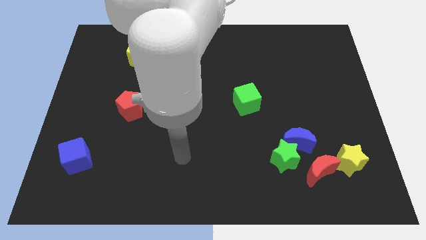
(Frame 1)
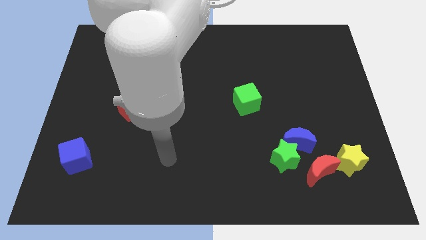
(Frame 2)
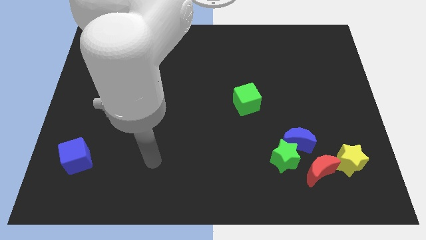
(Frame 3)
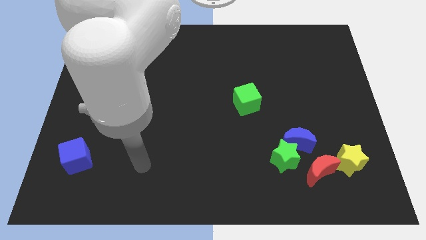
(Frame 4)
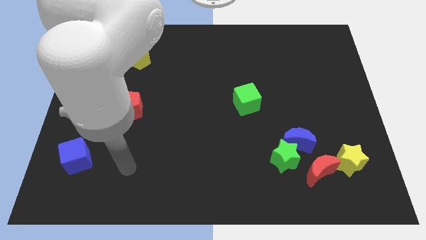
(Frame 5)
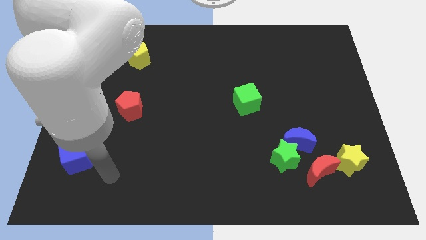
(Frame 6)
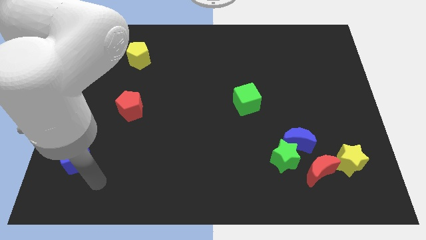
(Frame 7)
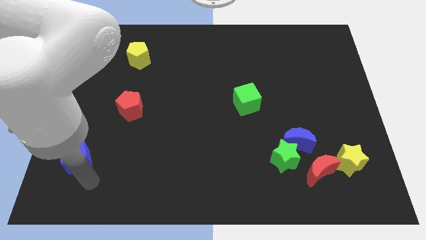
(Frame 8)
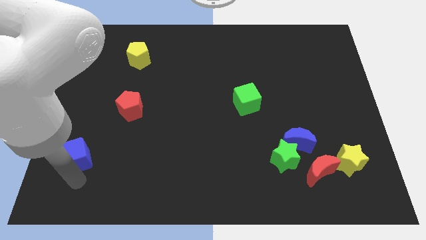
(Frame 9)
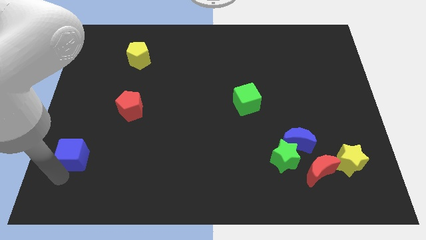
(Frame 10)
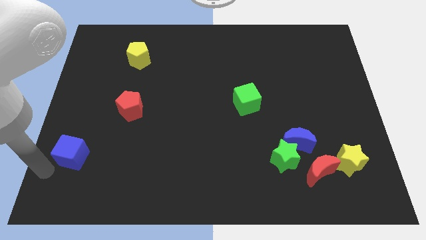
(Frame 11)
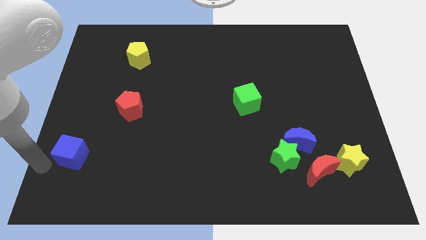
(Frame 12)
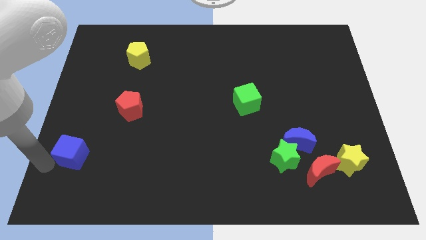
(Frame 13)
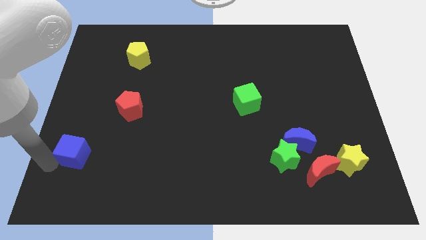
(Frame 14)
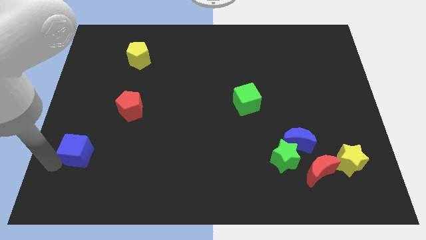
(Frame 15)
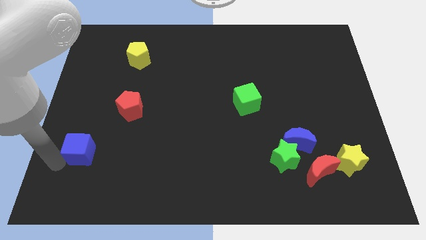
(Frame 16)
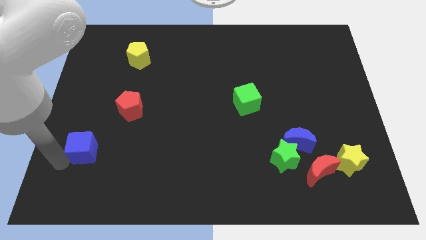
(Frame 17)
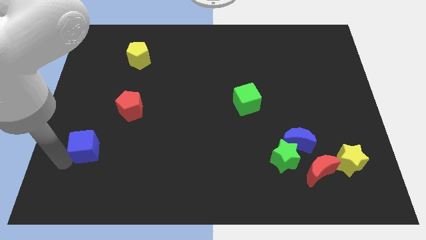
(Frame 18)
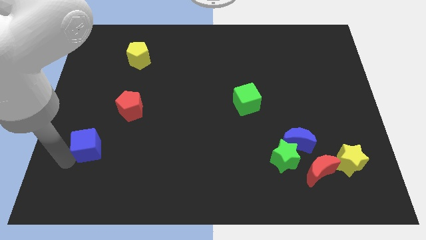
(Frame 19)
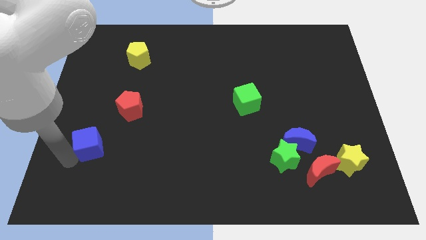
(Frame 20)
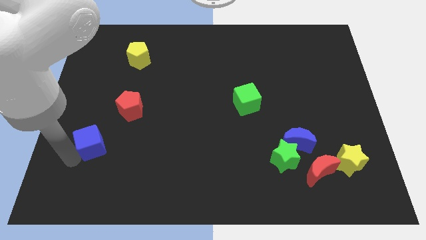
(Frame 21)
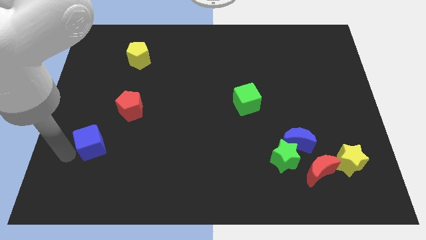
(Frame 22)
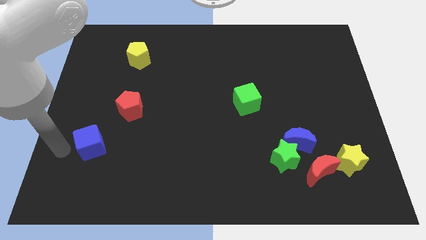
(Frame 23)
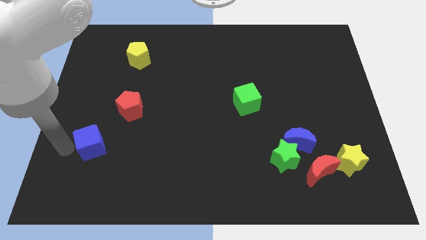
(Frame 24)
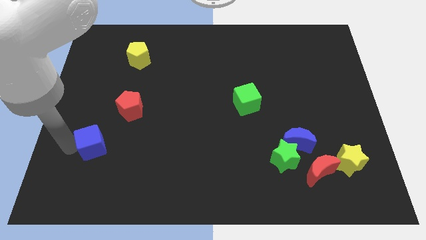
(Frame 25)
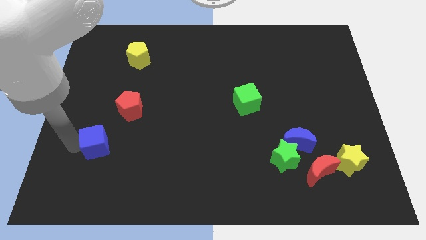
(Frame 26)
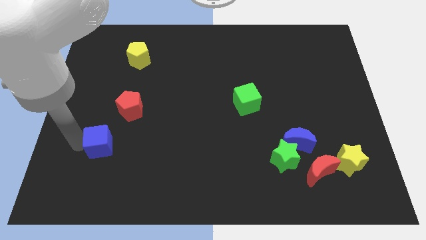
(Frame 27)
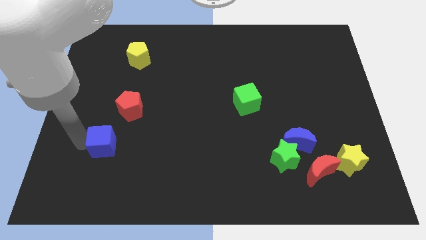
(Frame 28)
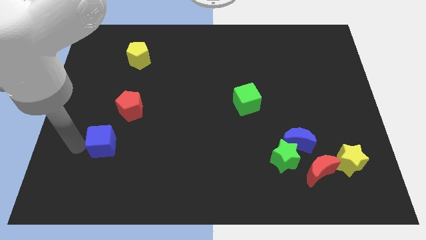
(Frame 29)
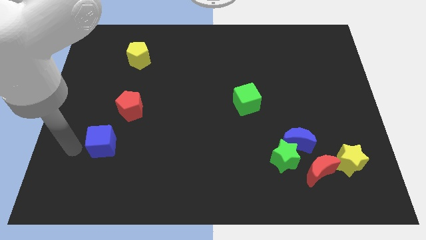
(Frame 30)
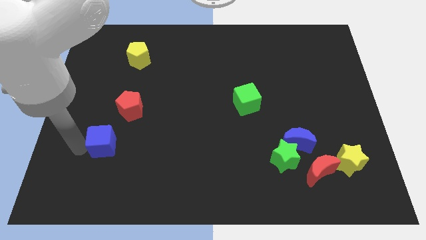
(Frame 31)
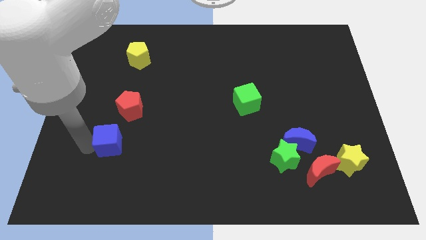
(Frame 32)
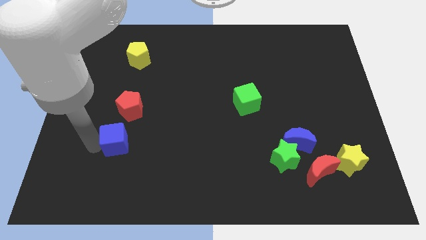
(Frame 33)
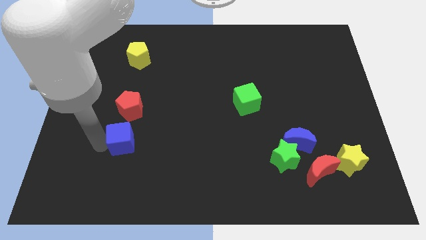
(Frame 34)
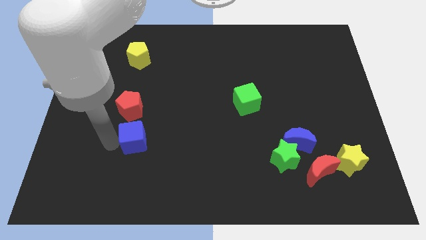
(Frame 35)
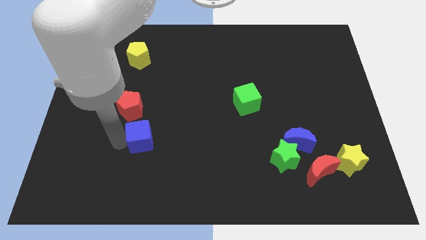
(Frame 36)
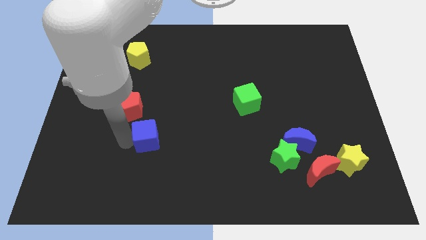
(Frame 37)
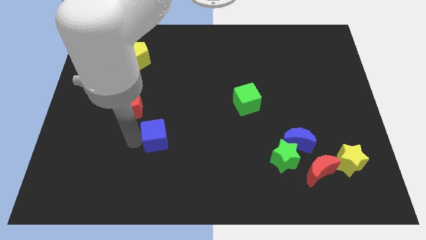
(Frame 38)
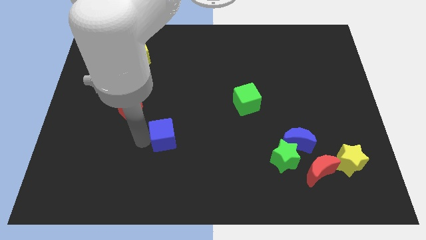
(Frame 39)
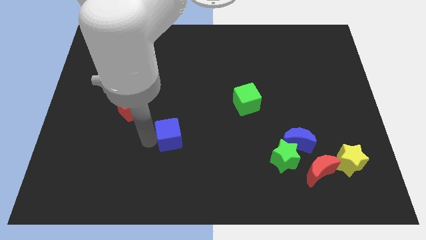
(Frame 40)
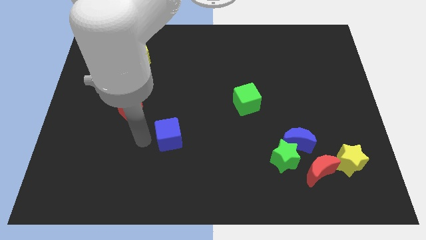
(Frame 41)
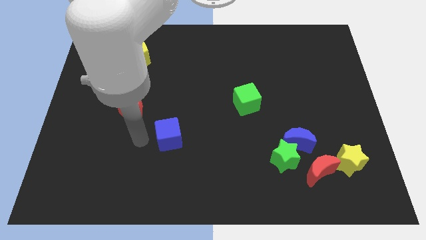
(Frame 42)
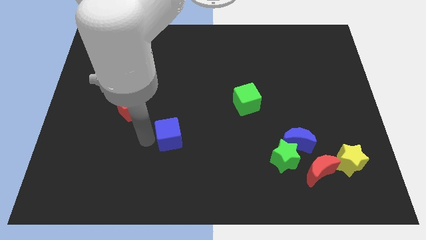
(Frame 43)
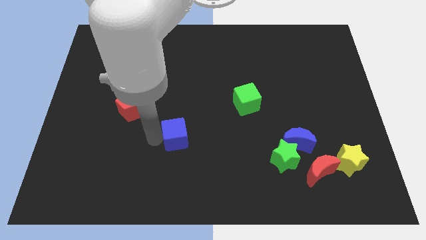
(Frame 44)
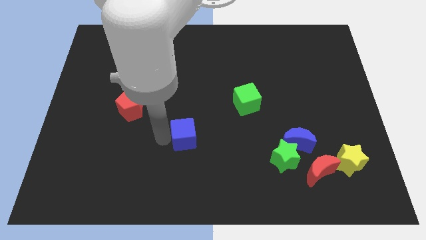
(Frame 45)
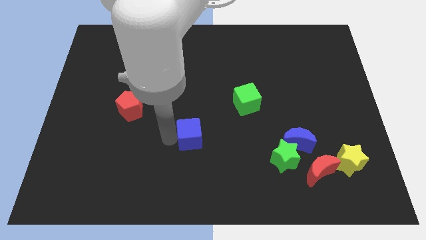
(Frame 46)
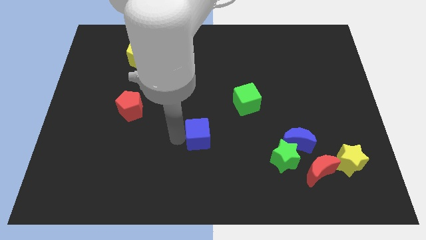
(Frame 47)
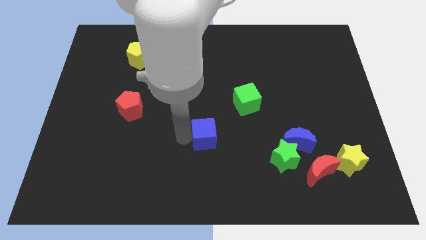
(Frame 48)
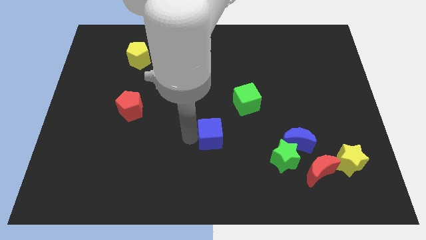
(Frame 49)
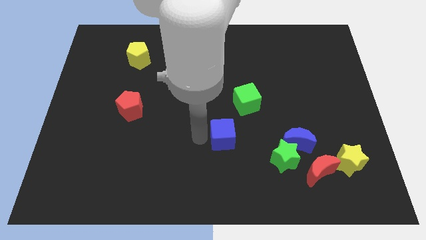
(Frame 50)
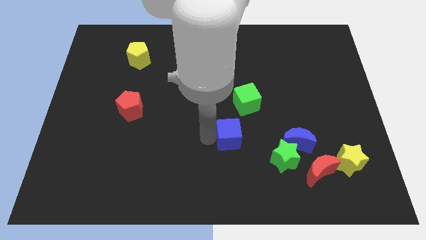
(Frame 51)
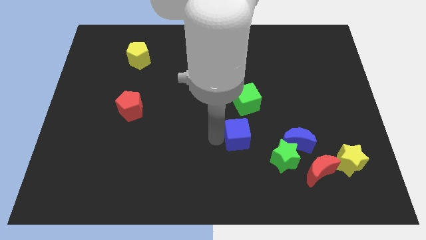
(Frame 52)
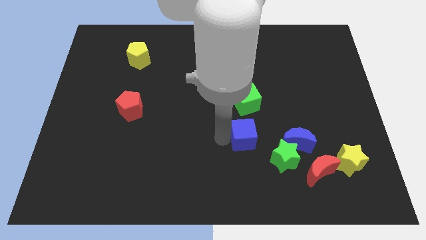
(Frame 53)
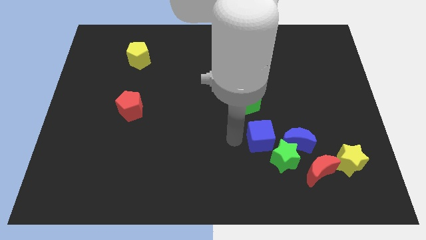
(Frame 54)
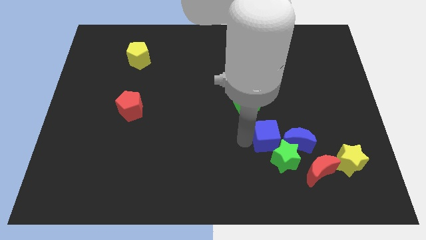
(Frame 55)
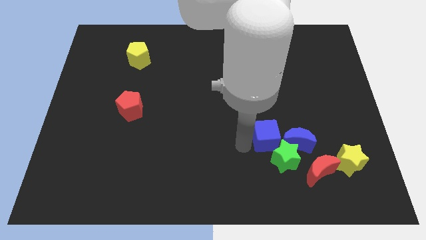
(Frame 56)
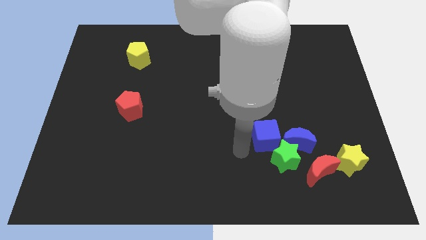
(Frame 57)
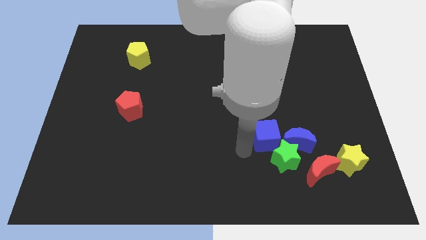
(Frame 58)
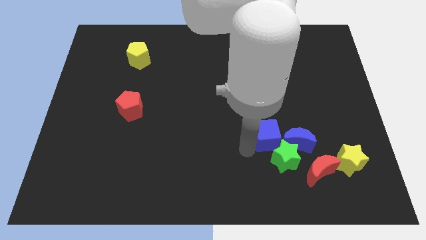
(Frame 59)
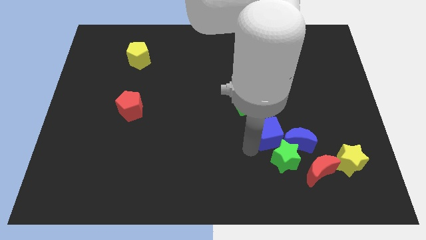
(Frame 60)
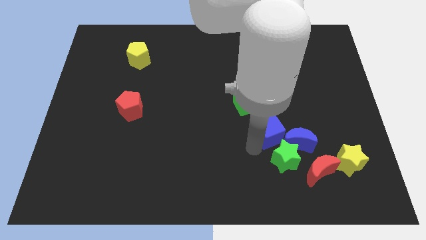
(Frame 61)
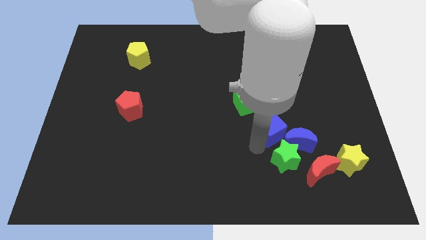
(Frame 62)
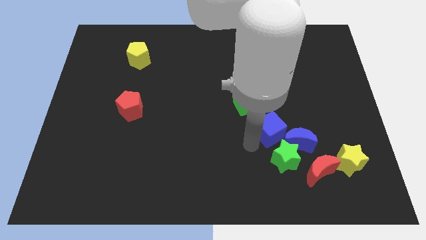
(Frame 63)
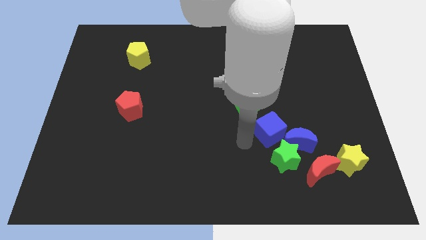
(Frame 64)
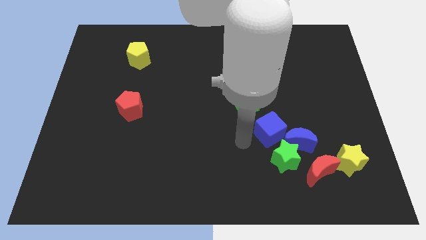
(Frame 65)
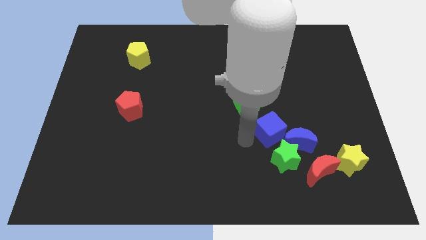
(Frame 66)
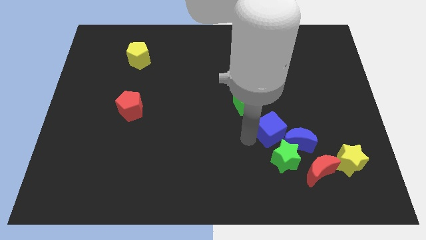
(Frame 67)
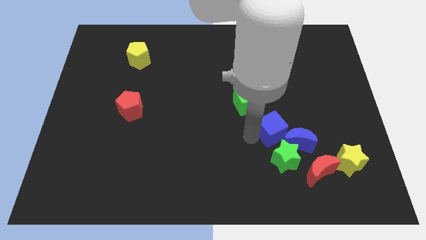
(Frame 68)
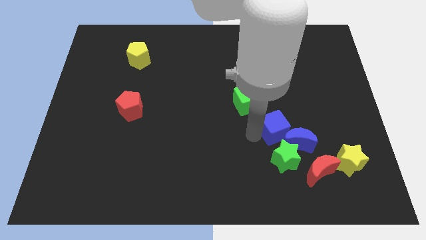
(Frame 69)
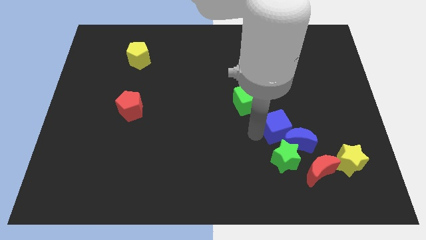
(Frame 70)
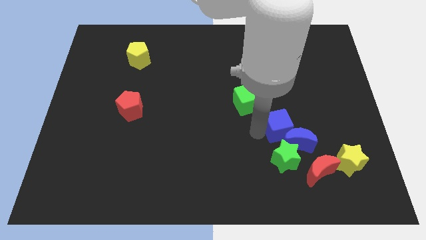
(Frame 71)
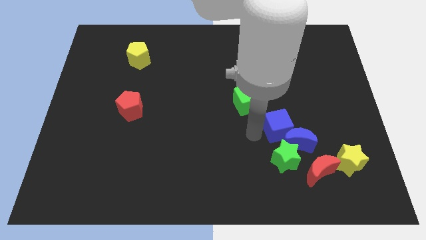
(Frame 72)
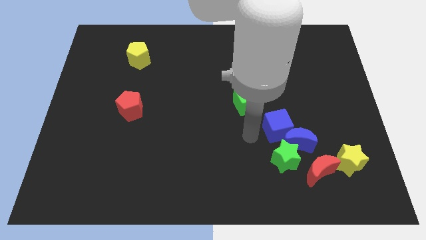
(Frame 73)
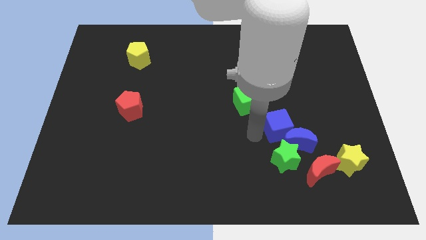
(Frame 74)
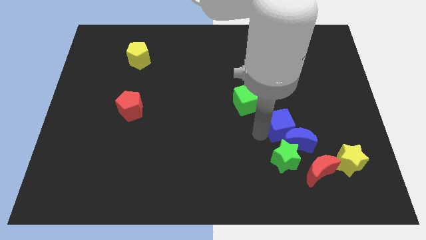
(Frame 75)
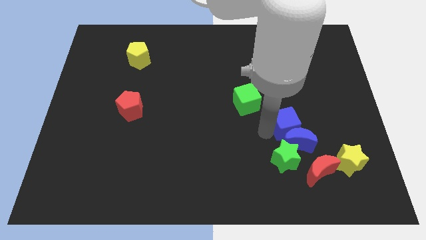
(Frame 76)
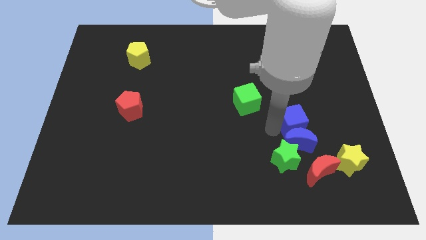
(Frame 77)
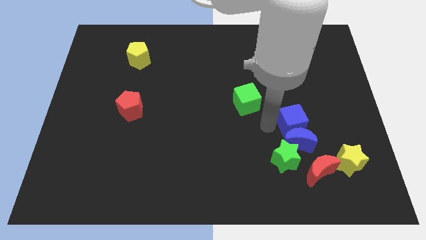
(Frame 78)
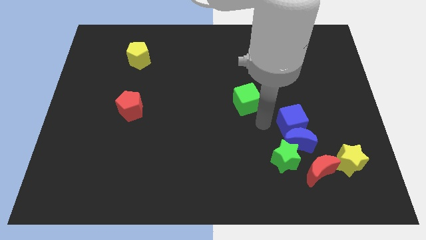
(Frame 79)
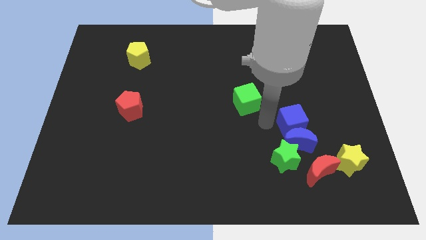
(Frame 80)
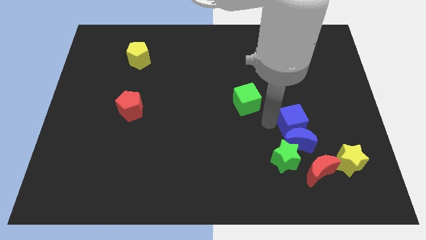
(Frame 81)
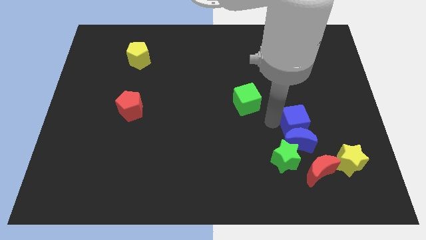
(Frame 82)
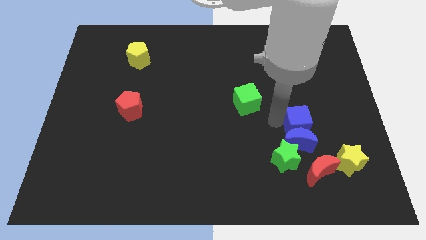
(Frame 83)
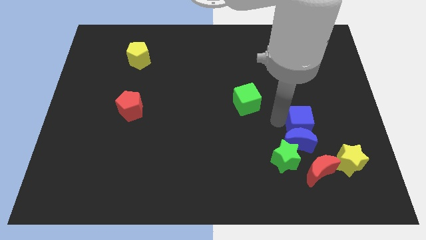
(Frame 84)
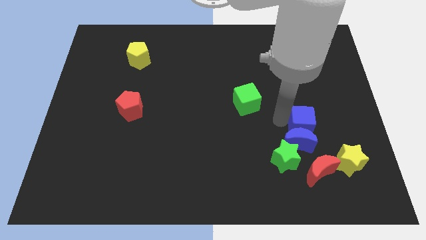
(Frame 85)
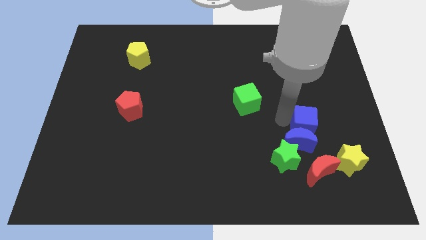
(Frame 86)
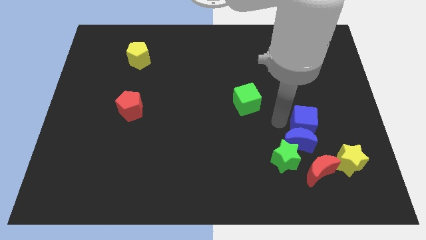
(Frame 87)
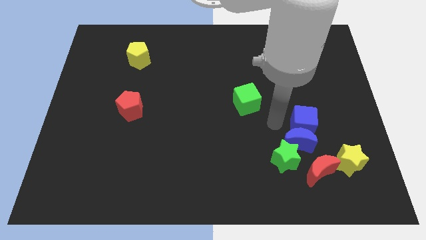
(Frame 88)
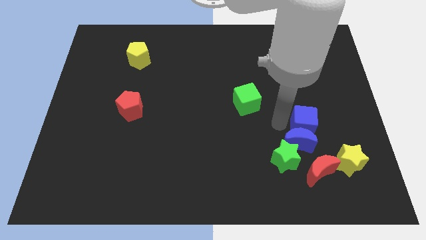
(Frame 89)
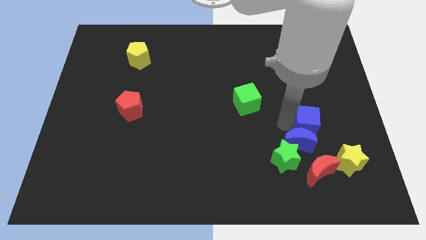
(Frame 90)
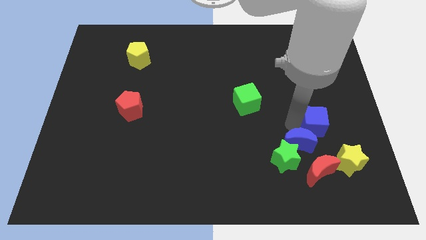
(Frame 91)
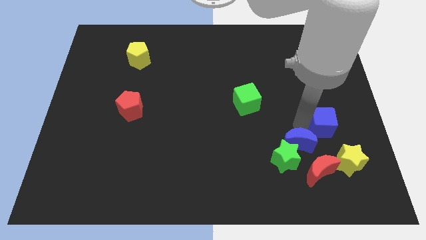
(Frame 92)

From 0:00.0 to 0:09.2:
move the blue cube to the top side of the yellow star
